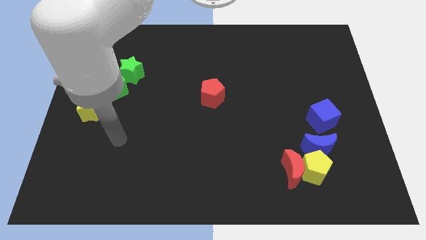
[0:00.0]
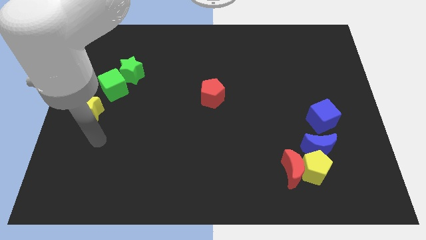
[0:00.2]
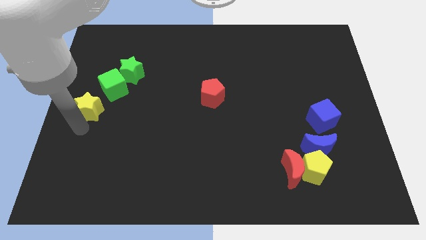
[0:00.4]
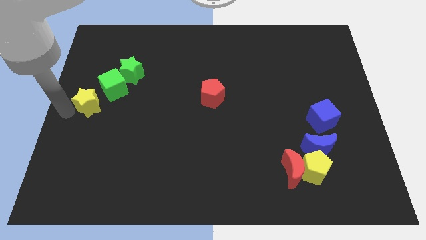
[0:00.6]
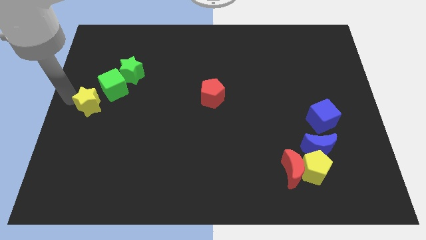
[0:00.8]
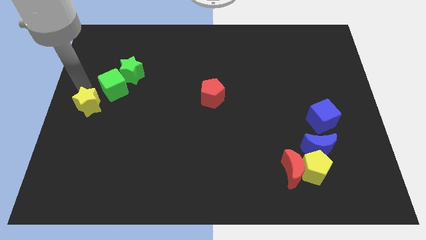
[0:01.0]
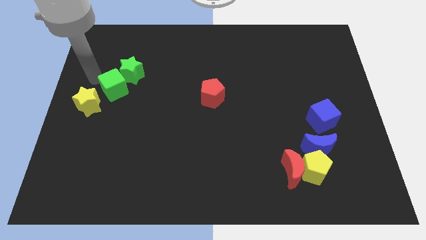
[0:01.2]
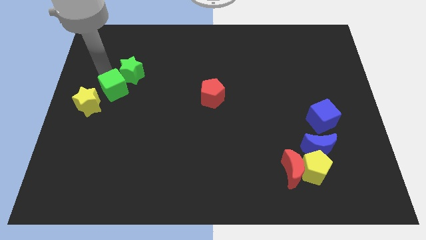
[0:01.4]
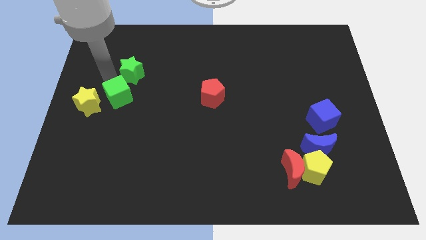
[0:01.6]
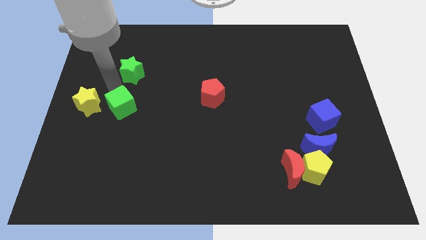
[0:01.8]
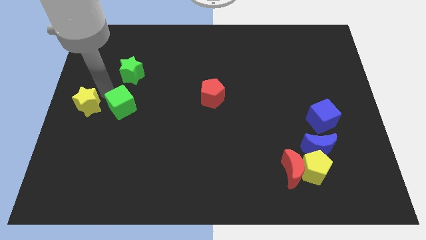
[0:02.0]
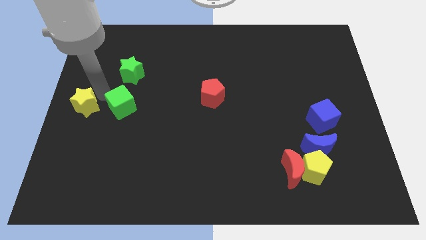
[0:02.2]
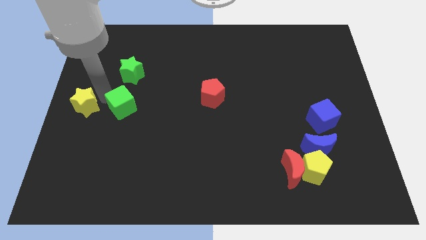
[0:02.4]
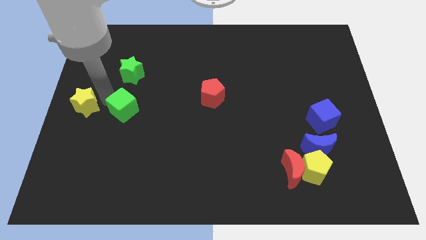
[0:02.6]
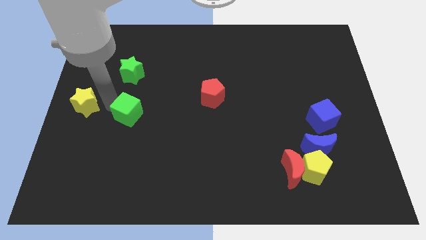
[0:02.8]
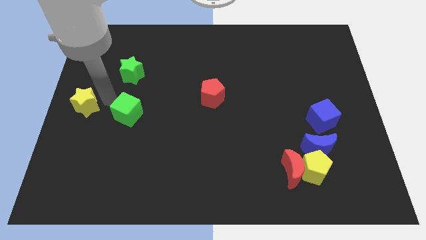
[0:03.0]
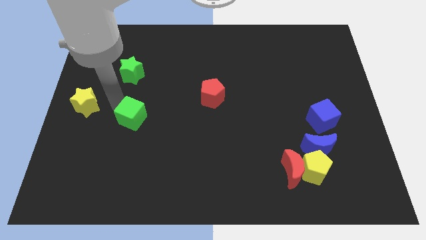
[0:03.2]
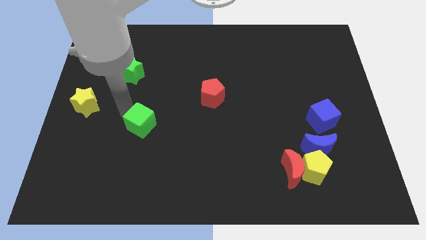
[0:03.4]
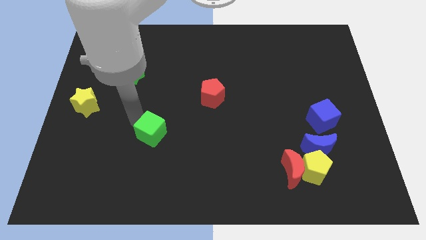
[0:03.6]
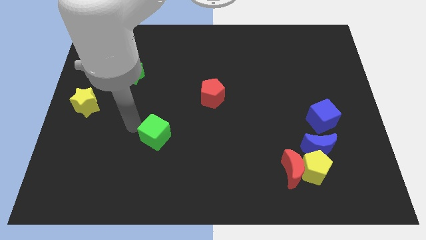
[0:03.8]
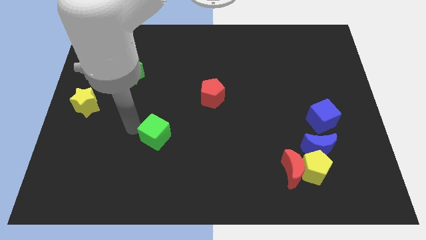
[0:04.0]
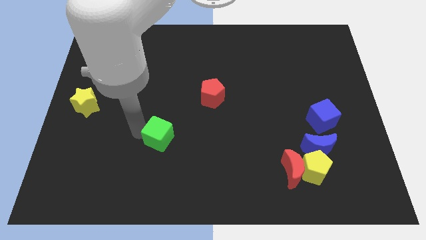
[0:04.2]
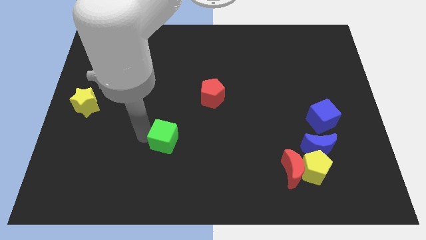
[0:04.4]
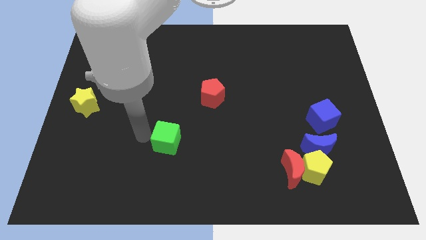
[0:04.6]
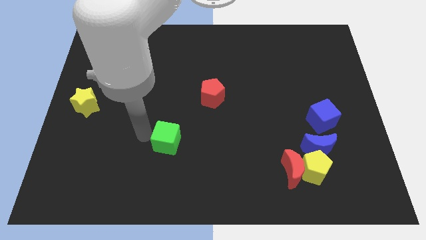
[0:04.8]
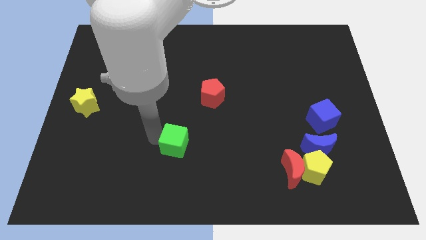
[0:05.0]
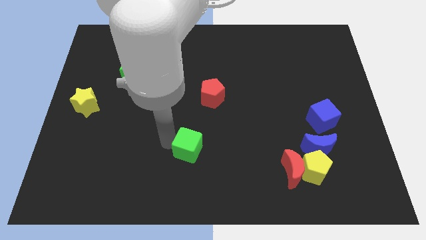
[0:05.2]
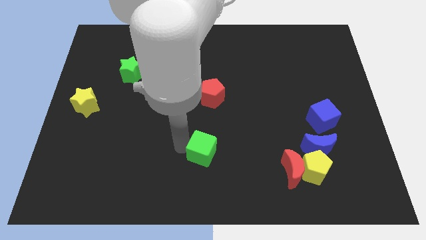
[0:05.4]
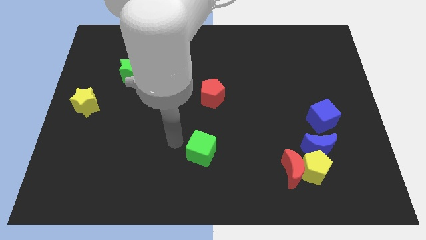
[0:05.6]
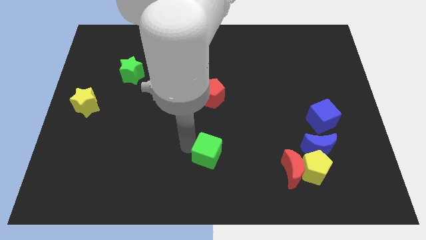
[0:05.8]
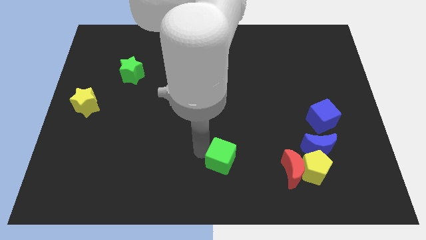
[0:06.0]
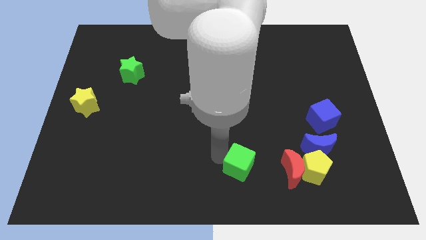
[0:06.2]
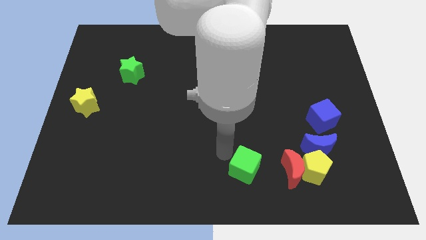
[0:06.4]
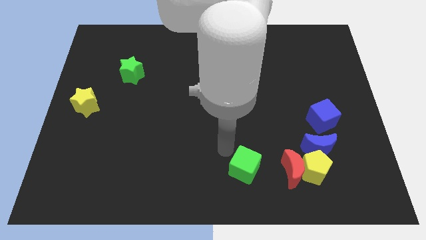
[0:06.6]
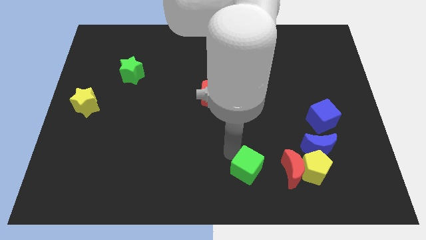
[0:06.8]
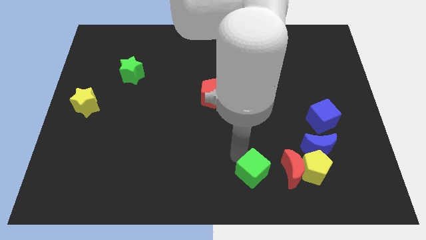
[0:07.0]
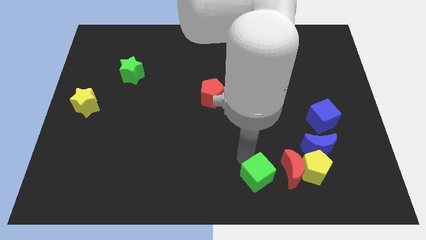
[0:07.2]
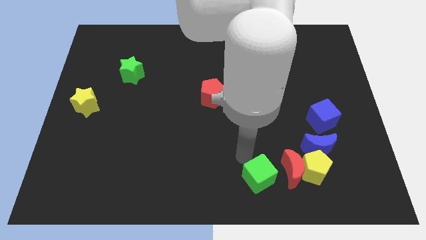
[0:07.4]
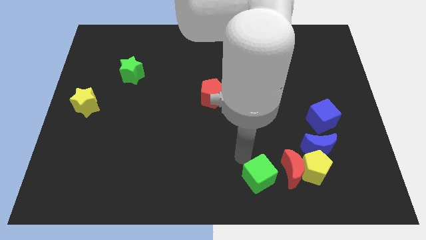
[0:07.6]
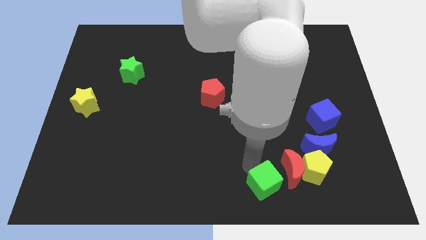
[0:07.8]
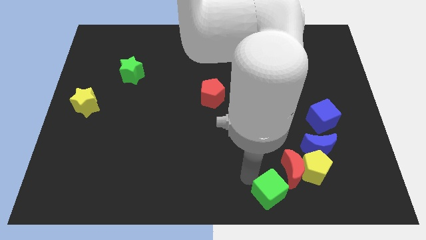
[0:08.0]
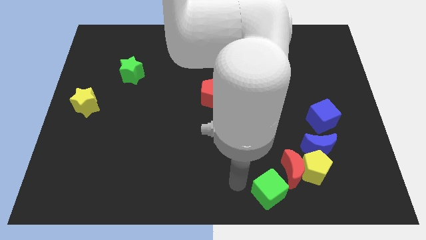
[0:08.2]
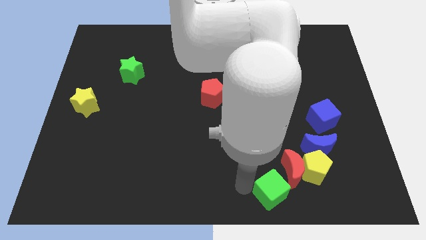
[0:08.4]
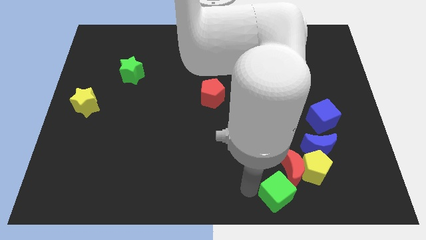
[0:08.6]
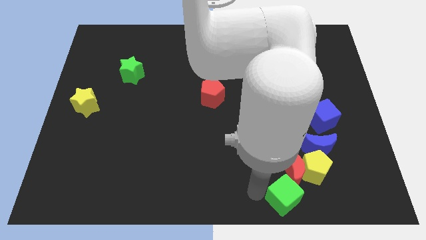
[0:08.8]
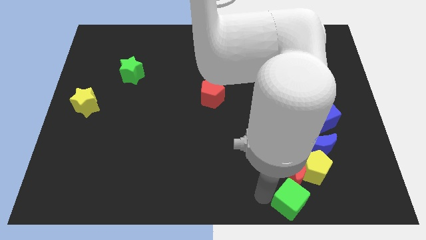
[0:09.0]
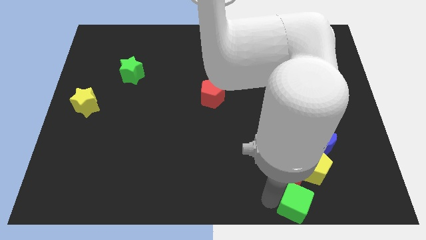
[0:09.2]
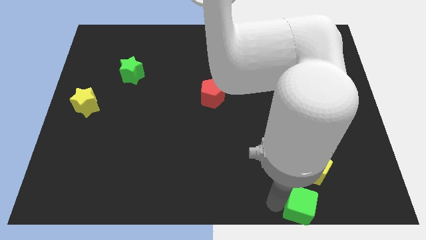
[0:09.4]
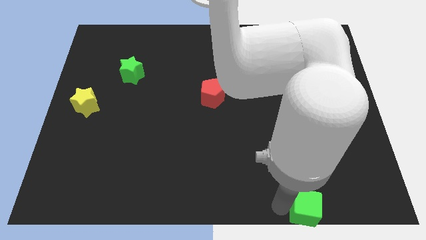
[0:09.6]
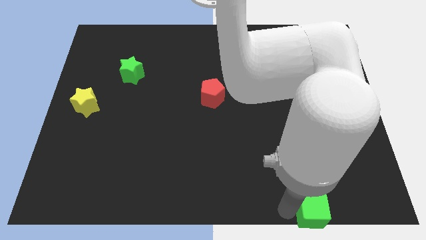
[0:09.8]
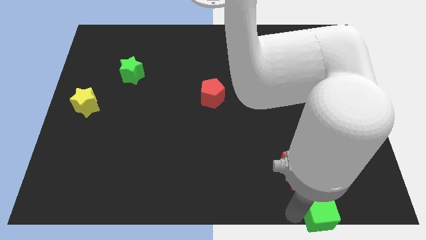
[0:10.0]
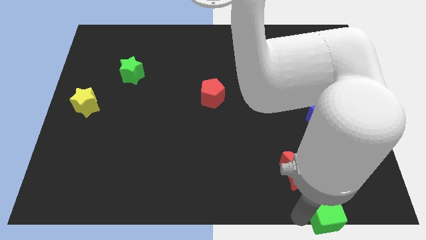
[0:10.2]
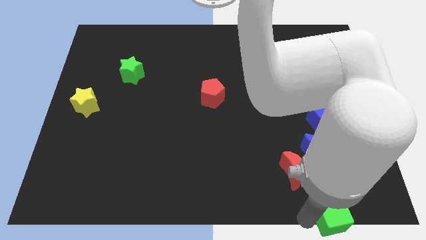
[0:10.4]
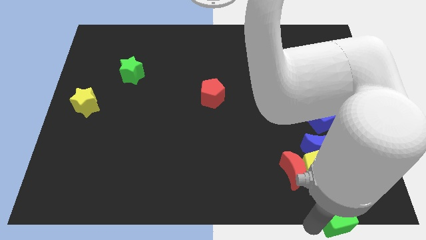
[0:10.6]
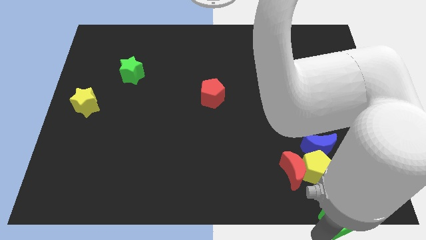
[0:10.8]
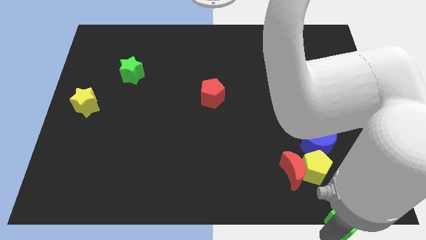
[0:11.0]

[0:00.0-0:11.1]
put the green cube to the bottom right

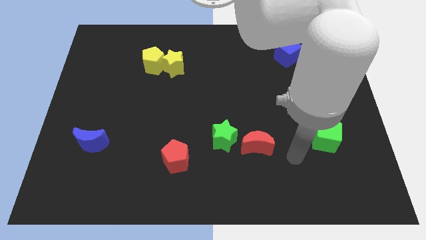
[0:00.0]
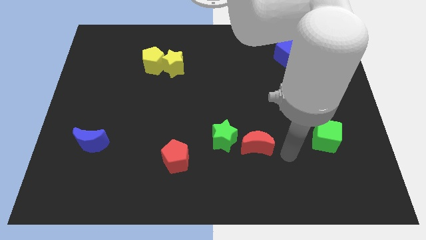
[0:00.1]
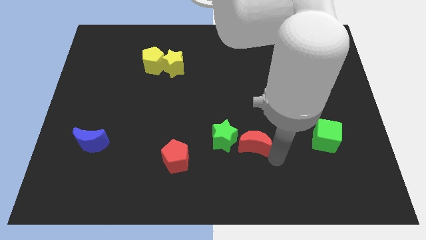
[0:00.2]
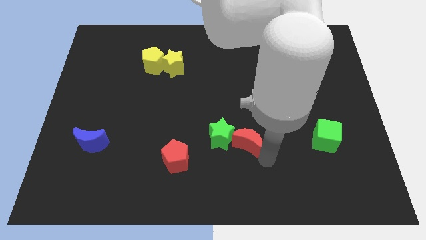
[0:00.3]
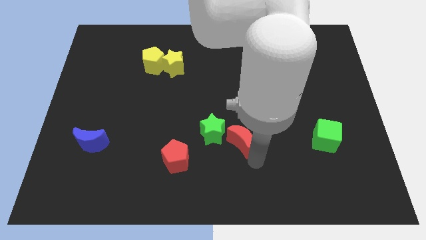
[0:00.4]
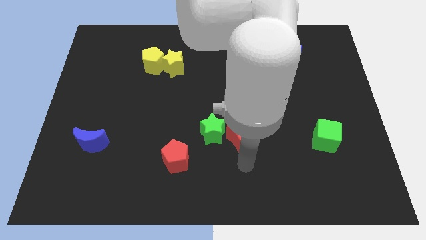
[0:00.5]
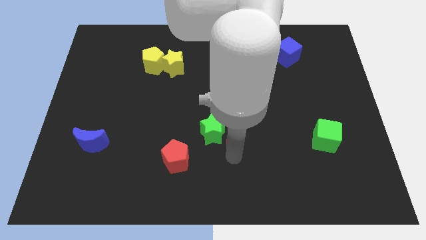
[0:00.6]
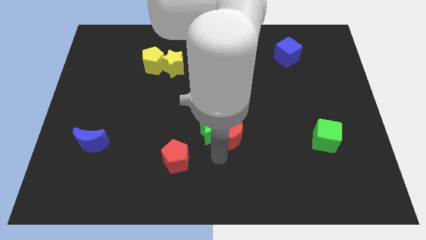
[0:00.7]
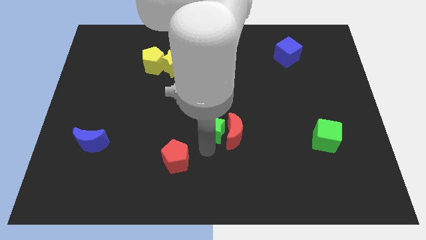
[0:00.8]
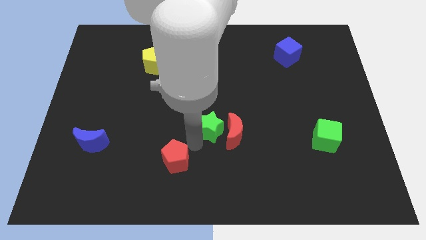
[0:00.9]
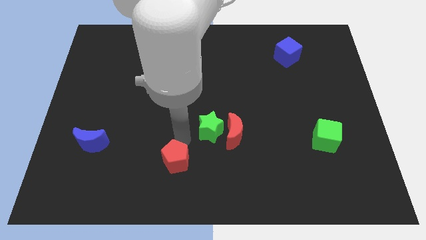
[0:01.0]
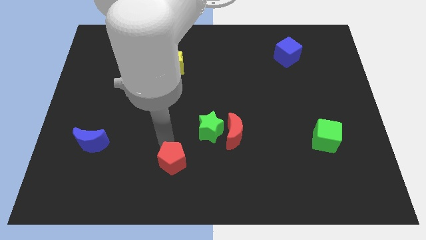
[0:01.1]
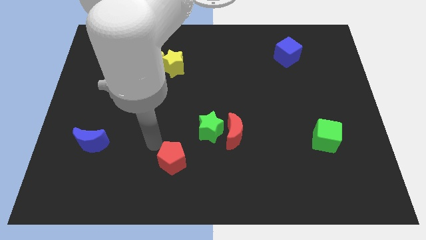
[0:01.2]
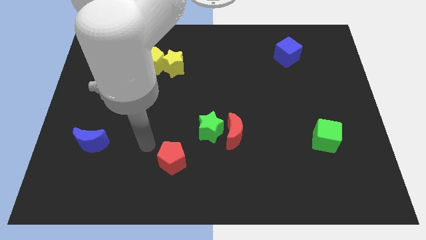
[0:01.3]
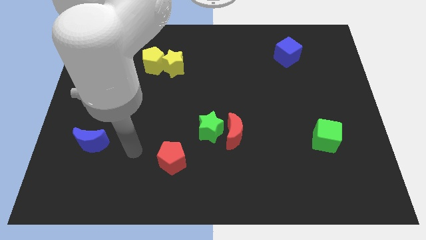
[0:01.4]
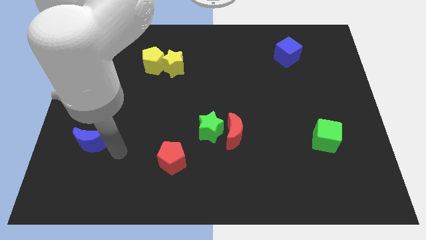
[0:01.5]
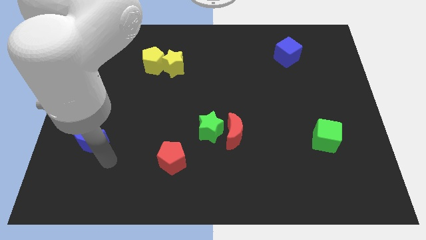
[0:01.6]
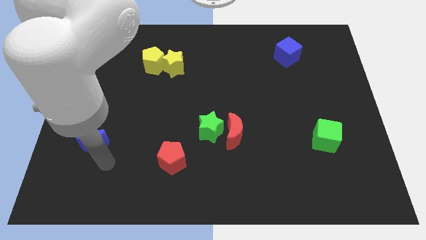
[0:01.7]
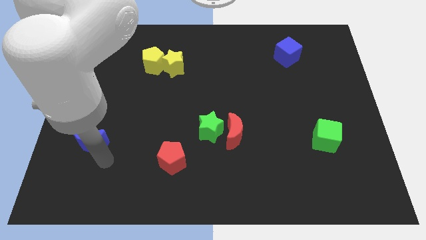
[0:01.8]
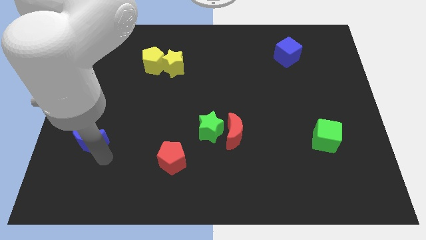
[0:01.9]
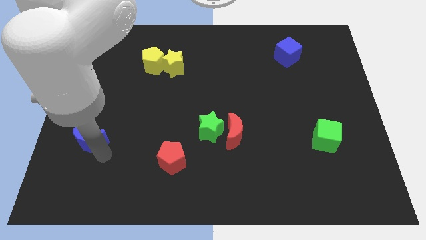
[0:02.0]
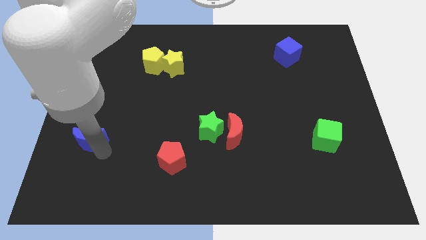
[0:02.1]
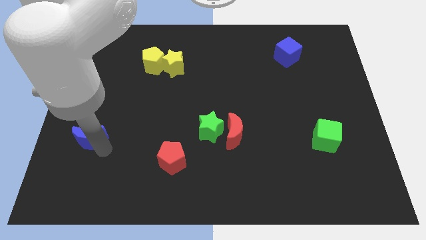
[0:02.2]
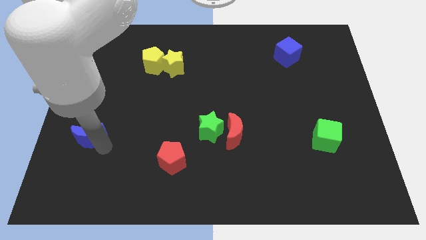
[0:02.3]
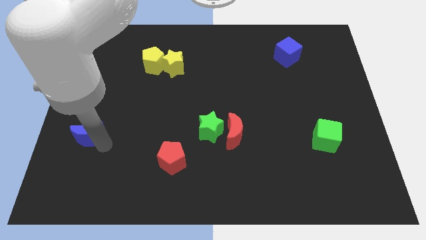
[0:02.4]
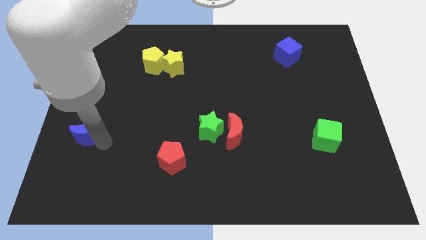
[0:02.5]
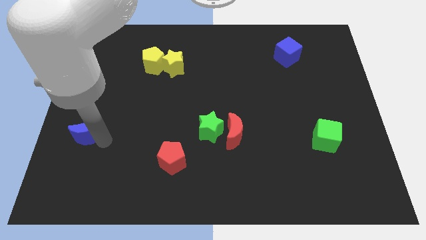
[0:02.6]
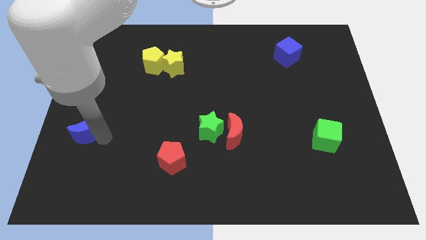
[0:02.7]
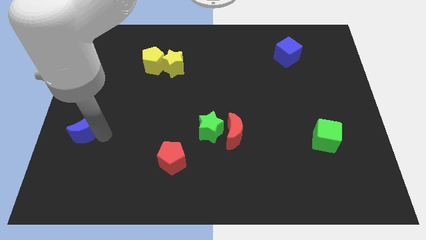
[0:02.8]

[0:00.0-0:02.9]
slide the blue moon to the left side
